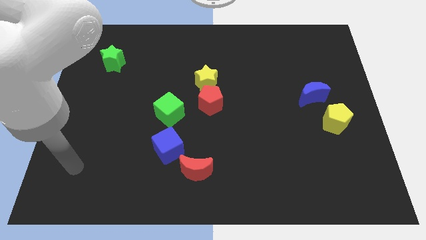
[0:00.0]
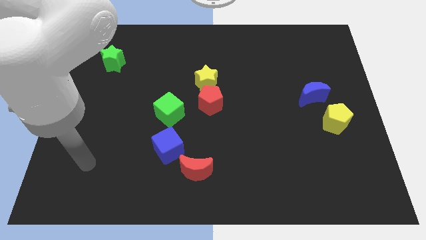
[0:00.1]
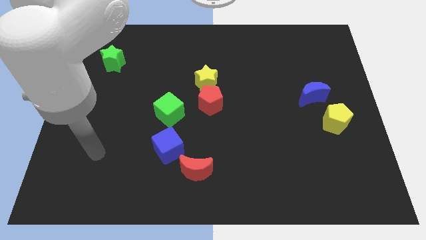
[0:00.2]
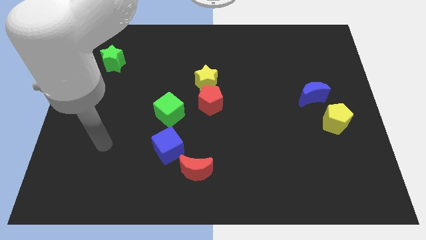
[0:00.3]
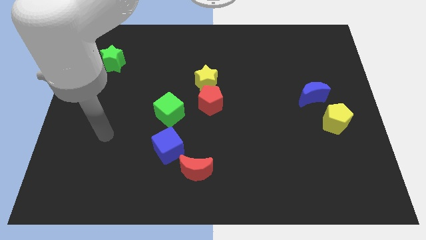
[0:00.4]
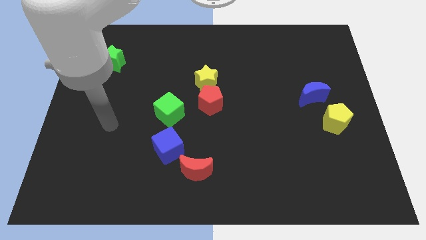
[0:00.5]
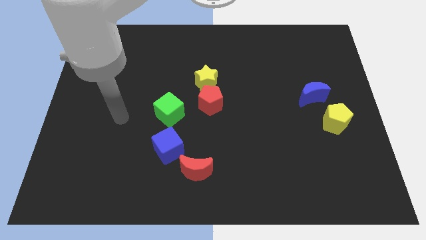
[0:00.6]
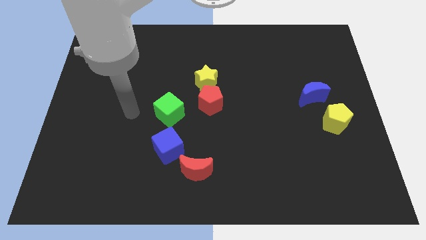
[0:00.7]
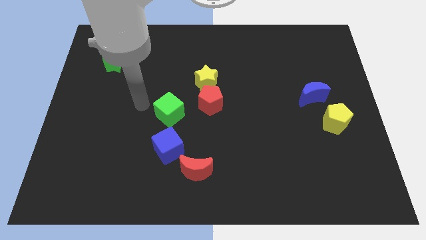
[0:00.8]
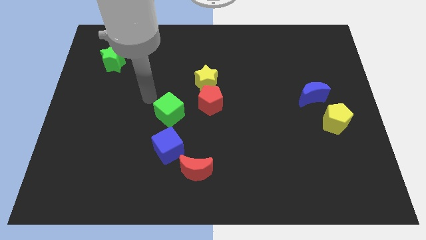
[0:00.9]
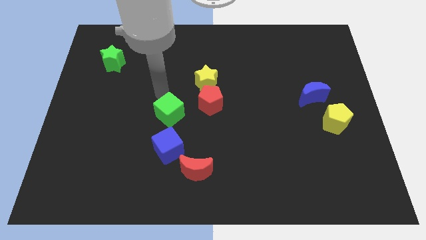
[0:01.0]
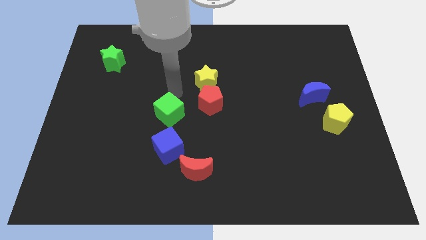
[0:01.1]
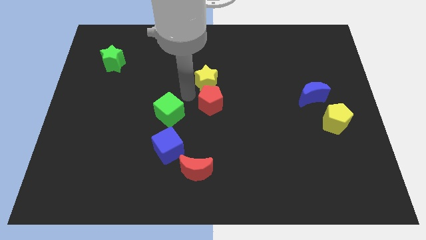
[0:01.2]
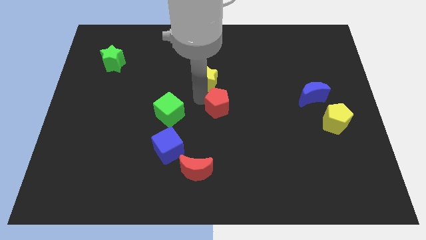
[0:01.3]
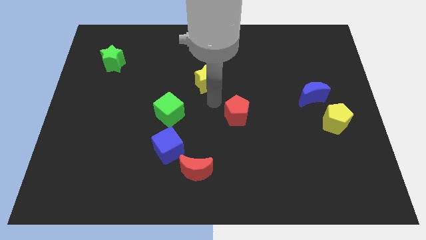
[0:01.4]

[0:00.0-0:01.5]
separate the yellow star from the red pentagon

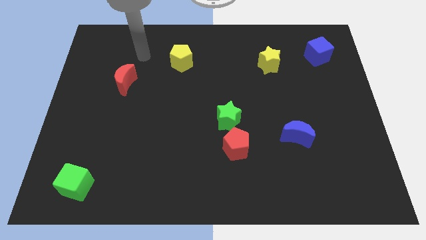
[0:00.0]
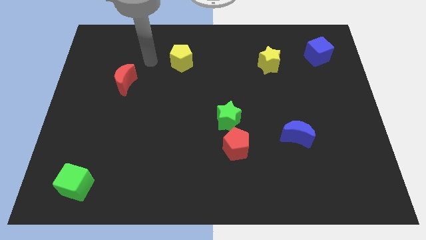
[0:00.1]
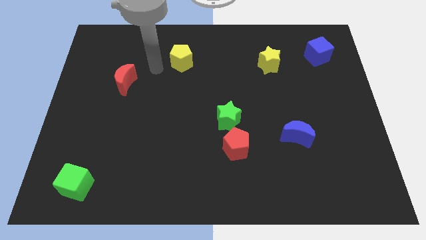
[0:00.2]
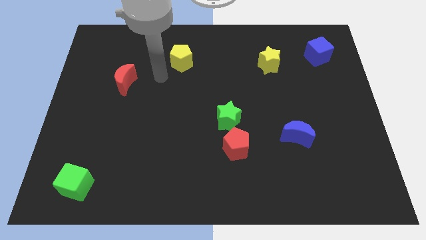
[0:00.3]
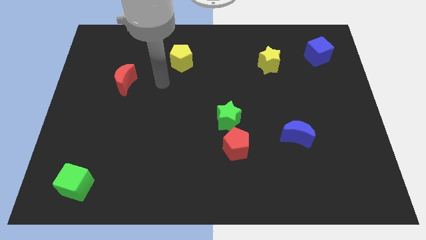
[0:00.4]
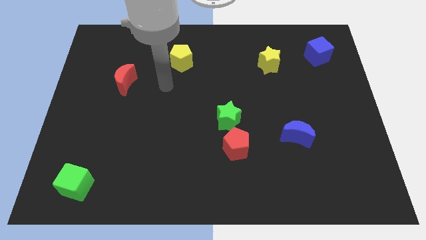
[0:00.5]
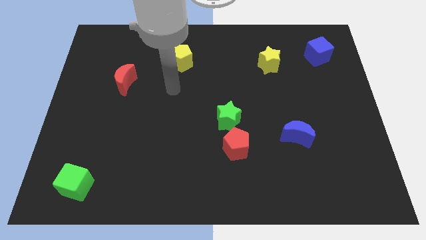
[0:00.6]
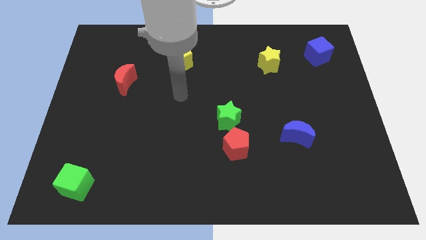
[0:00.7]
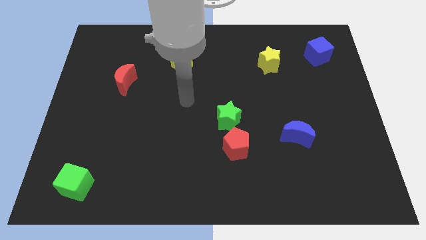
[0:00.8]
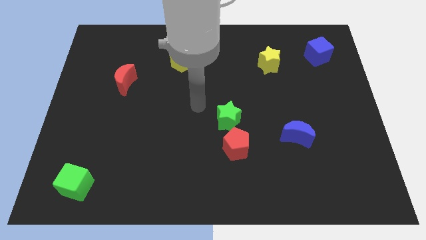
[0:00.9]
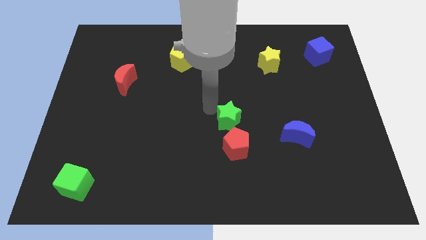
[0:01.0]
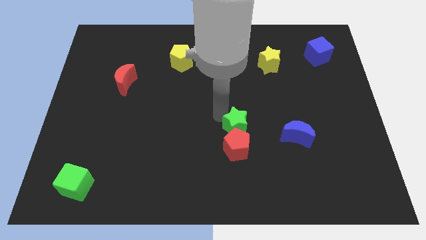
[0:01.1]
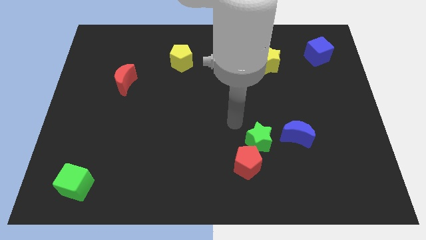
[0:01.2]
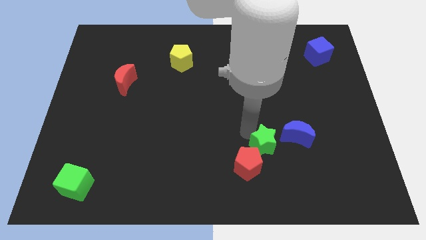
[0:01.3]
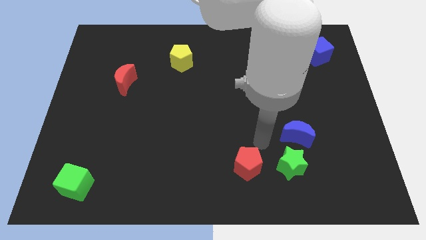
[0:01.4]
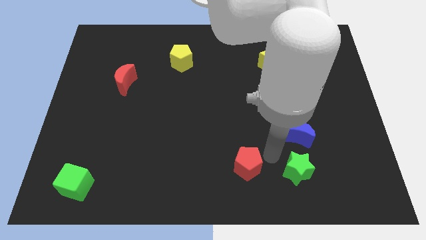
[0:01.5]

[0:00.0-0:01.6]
pull the red pentagon apart from the green star

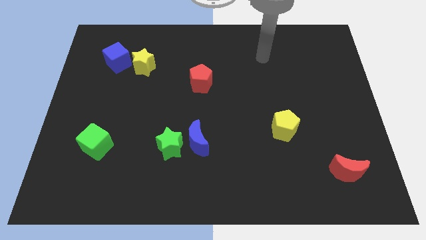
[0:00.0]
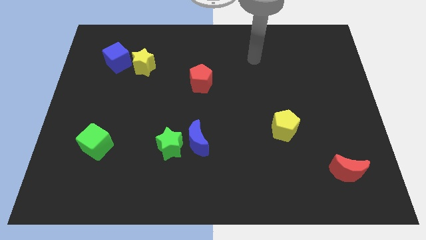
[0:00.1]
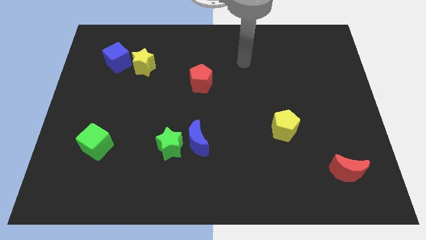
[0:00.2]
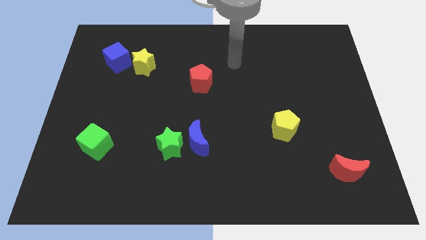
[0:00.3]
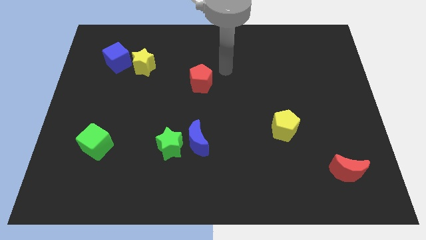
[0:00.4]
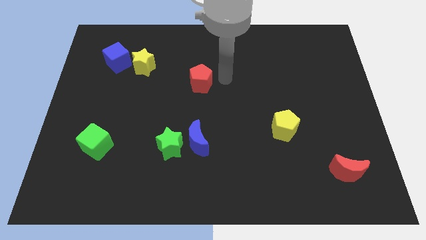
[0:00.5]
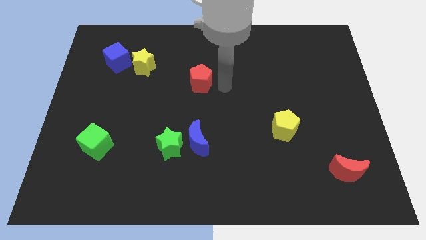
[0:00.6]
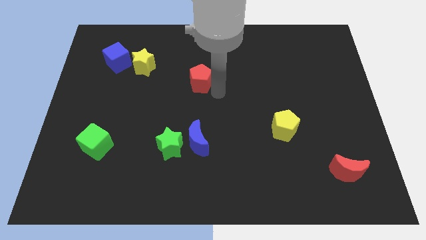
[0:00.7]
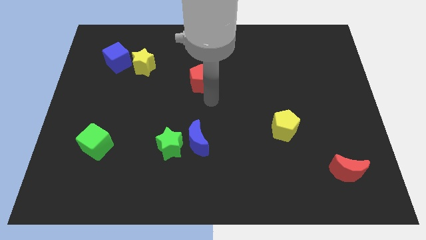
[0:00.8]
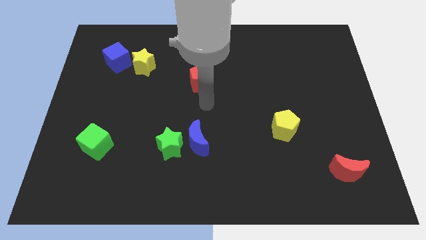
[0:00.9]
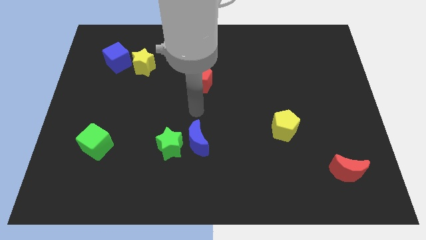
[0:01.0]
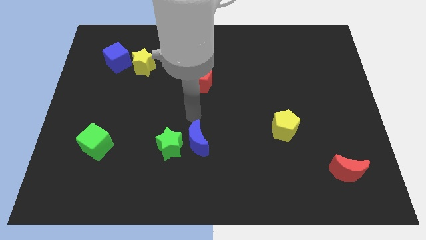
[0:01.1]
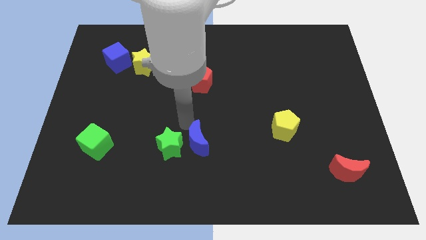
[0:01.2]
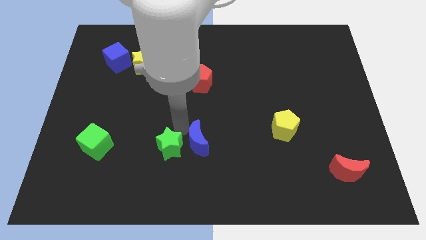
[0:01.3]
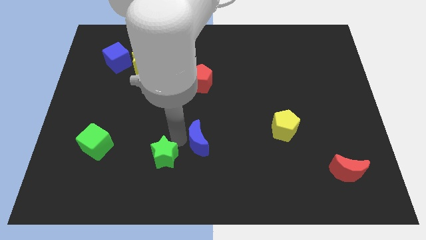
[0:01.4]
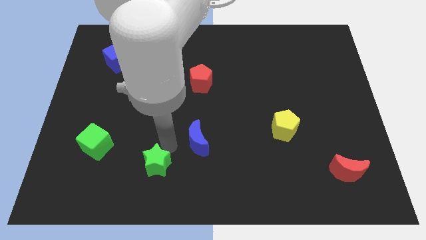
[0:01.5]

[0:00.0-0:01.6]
pull the blue moon apart from the green star

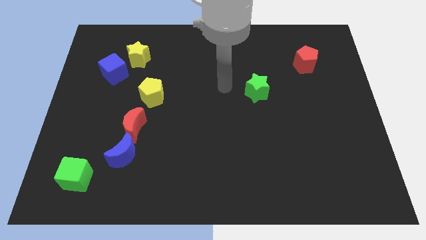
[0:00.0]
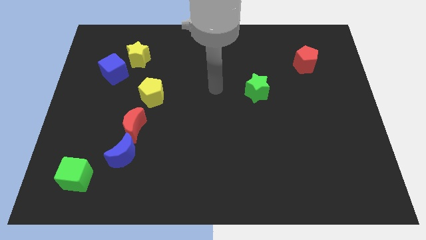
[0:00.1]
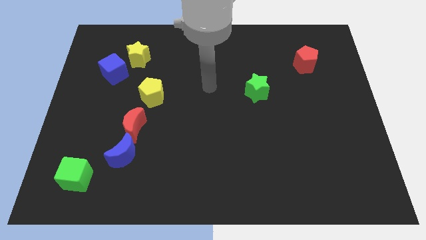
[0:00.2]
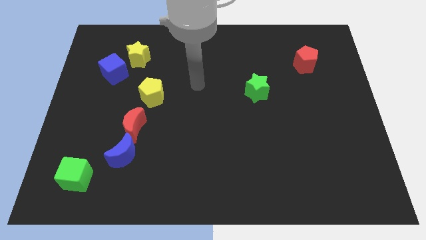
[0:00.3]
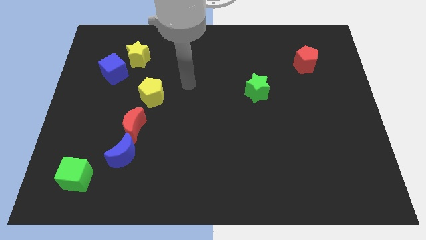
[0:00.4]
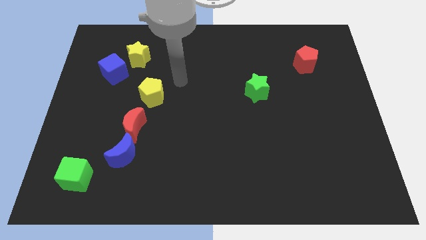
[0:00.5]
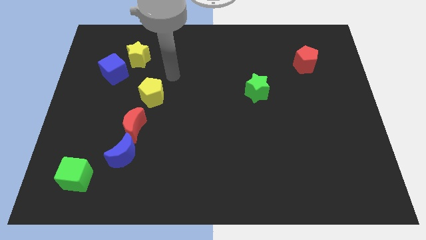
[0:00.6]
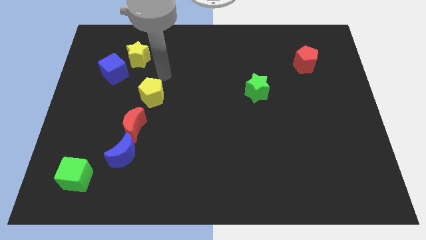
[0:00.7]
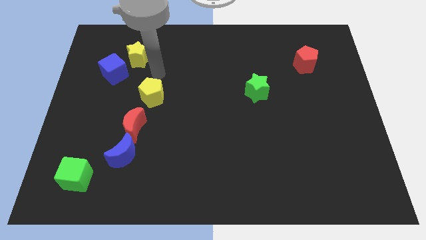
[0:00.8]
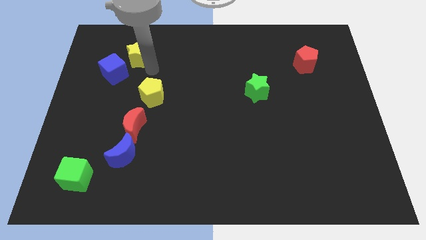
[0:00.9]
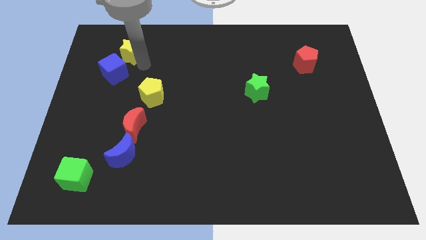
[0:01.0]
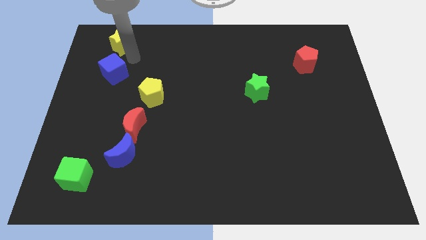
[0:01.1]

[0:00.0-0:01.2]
move the blue cube away from the yellow star

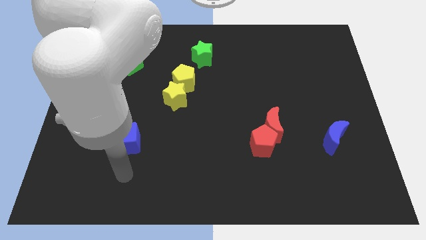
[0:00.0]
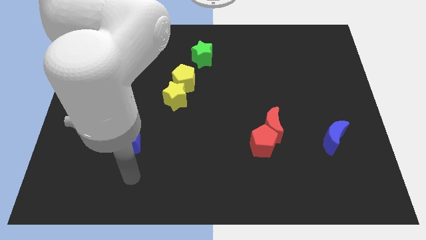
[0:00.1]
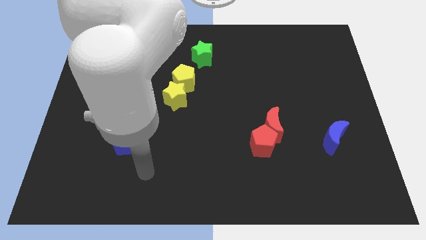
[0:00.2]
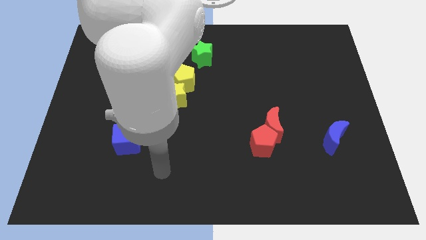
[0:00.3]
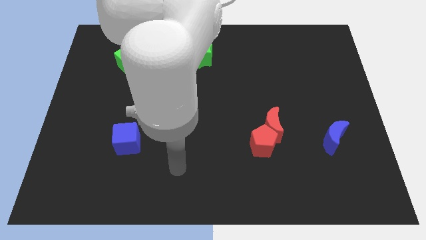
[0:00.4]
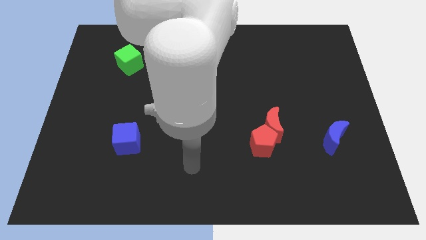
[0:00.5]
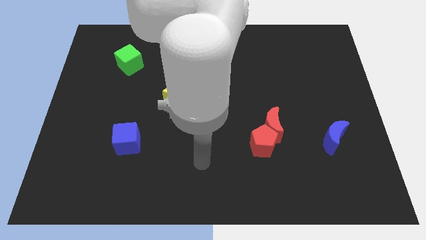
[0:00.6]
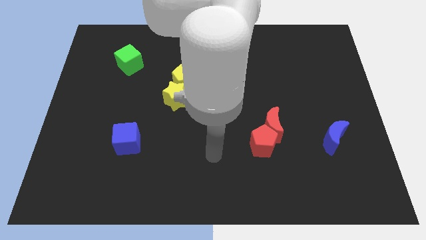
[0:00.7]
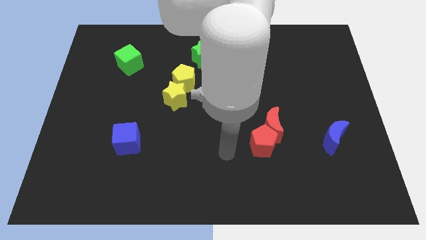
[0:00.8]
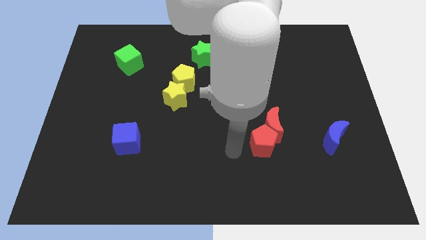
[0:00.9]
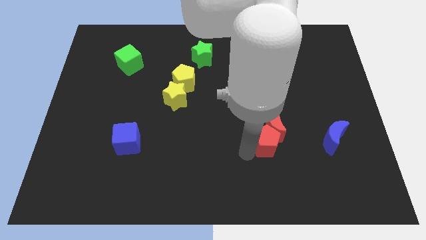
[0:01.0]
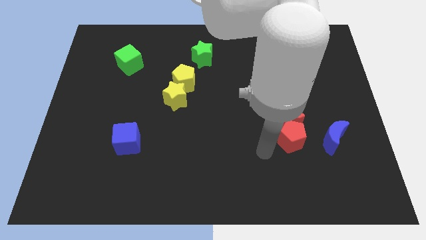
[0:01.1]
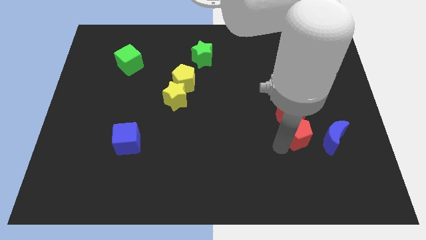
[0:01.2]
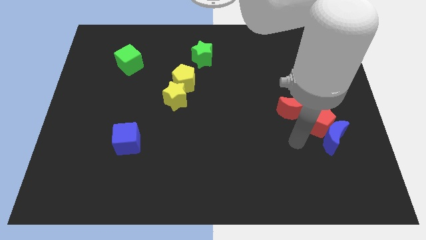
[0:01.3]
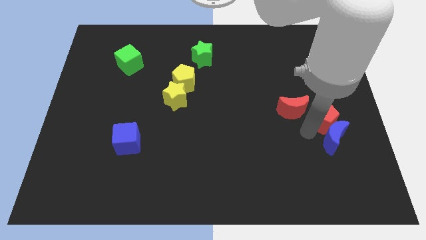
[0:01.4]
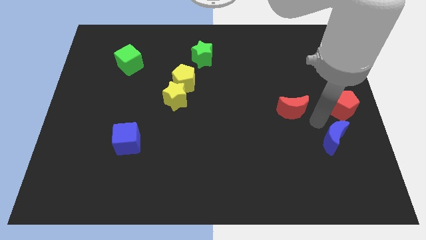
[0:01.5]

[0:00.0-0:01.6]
separate the red moon from the red pentagon

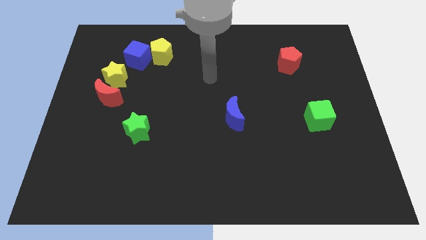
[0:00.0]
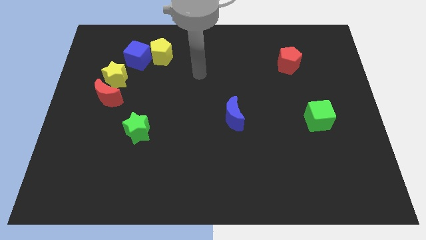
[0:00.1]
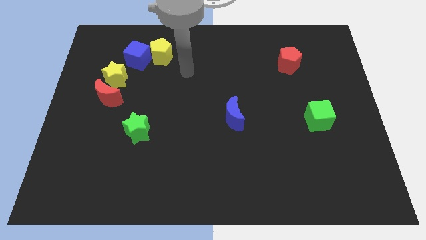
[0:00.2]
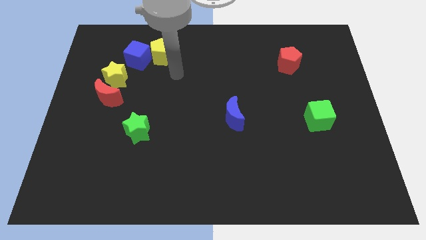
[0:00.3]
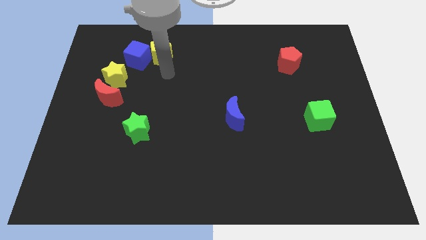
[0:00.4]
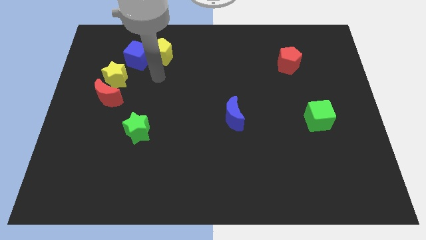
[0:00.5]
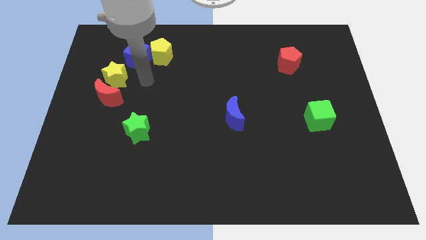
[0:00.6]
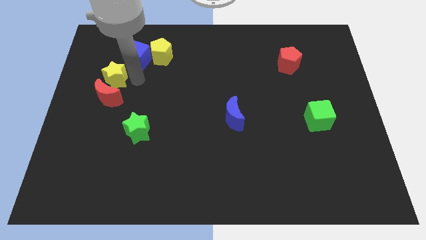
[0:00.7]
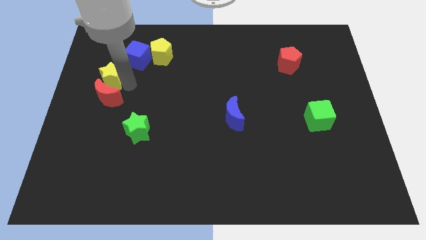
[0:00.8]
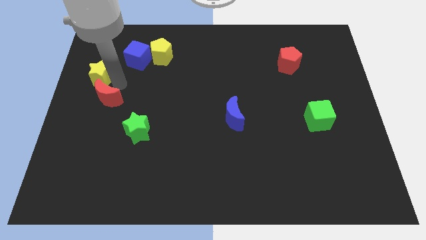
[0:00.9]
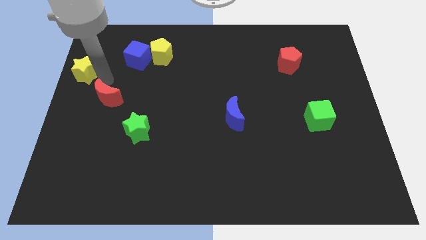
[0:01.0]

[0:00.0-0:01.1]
pull the red moon apart from the yellow star

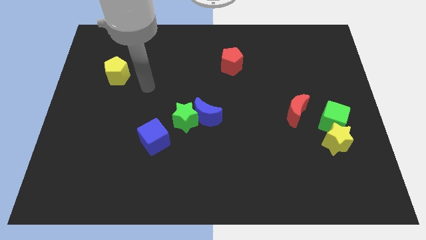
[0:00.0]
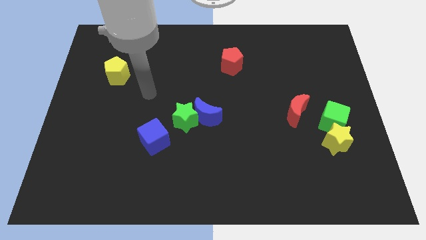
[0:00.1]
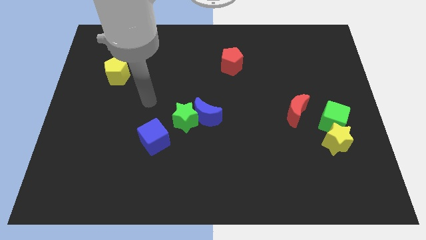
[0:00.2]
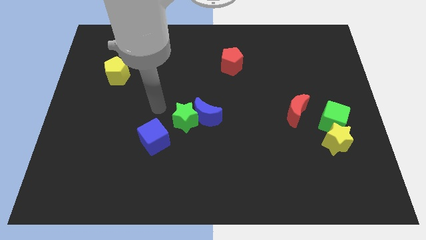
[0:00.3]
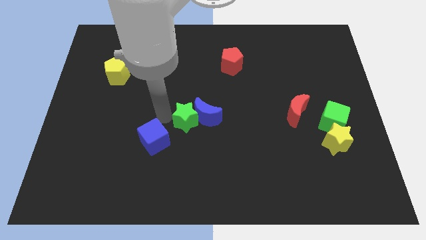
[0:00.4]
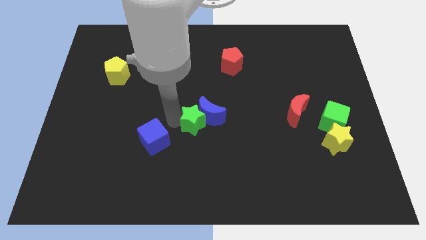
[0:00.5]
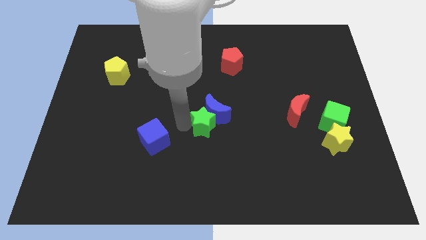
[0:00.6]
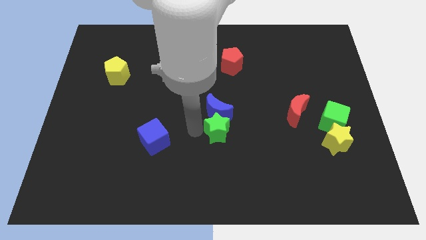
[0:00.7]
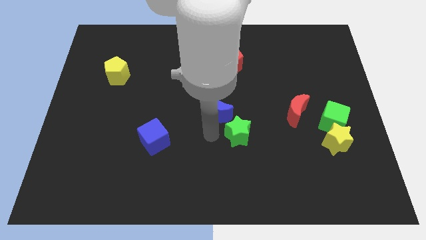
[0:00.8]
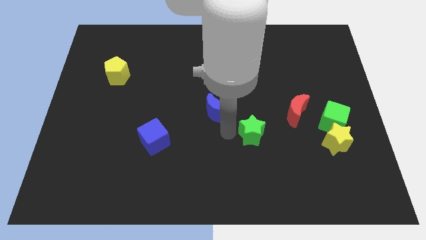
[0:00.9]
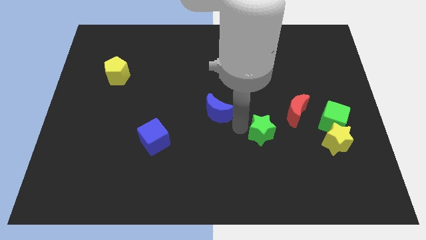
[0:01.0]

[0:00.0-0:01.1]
separate the blue moon from the green star
